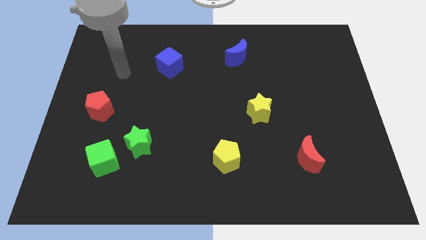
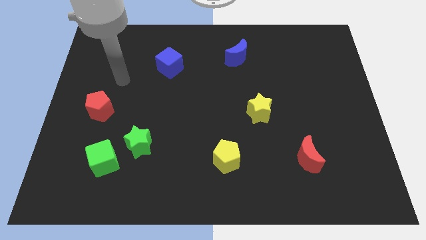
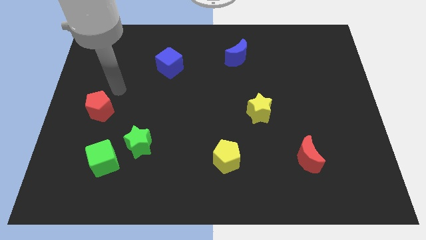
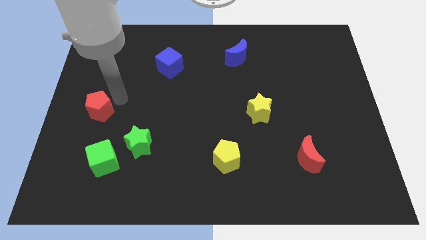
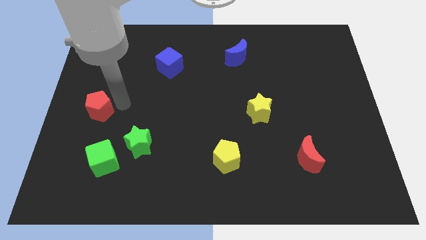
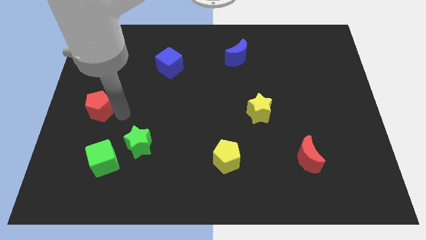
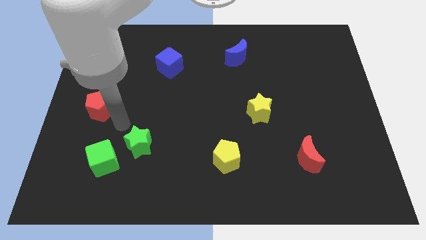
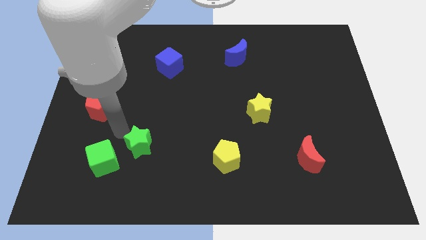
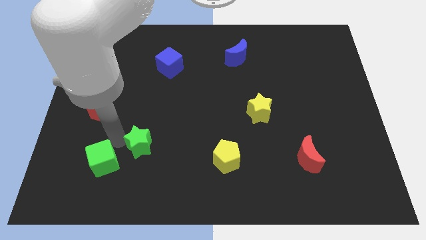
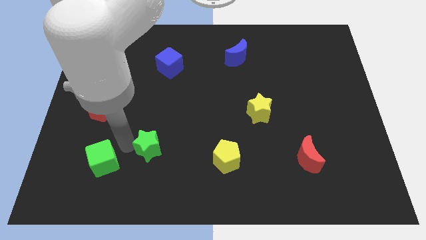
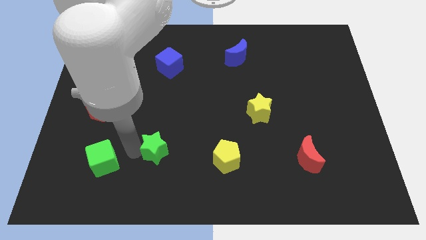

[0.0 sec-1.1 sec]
move the green cube away from the green star

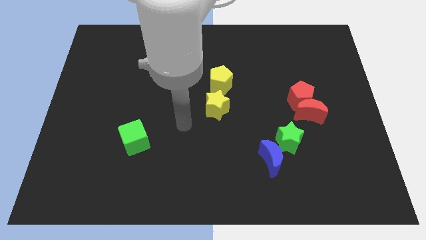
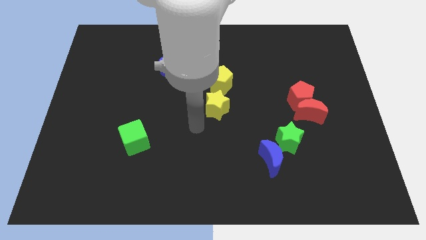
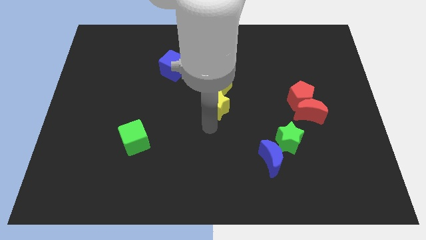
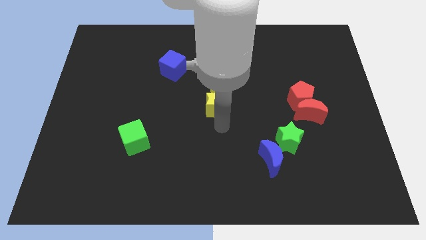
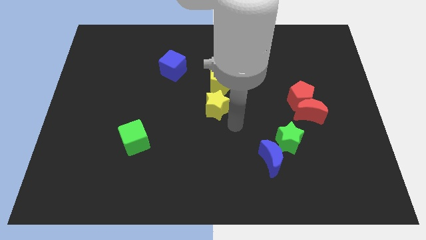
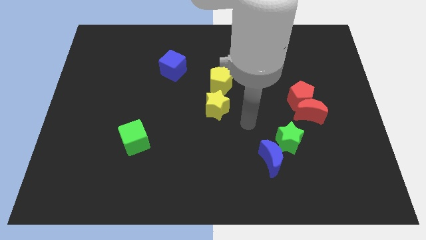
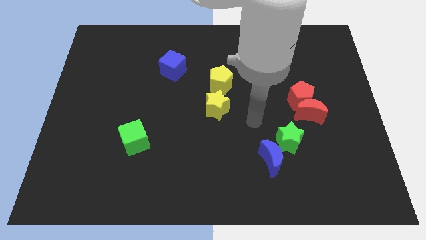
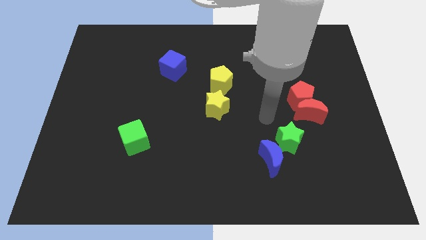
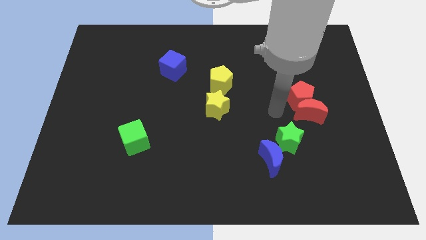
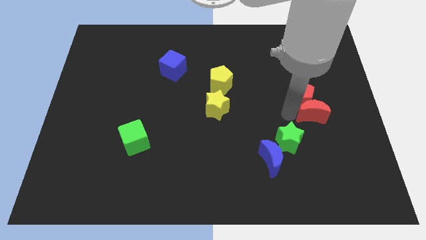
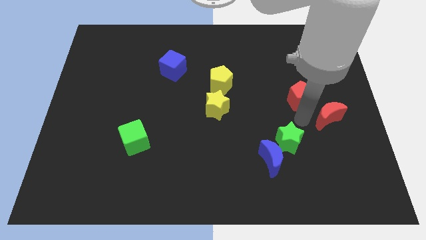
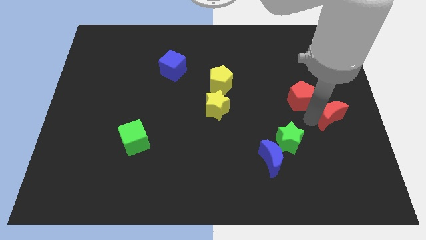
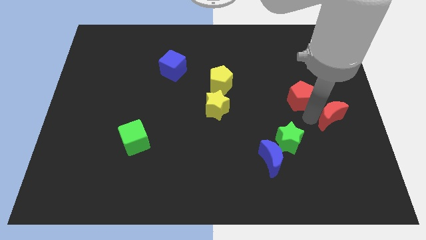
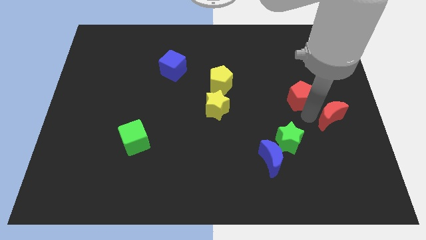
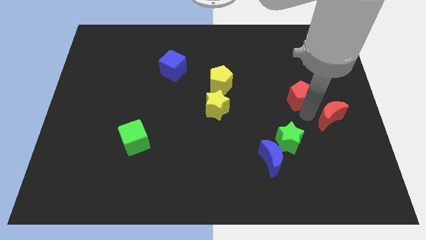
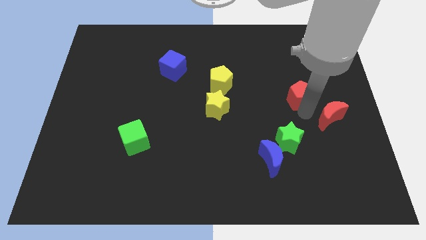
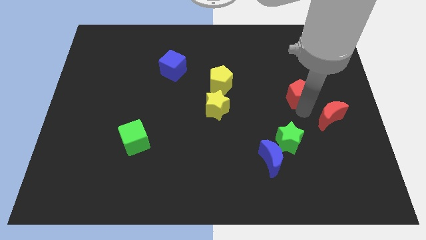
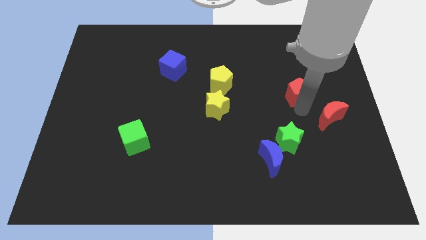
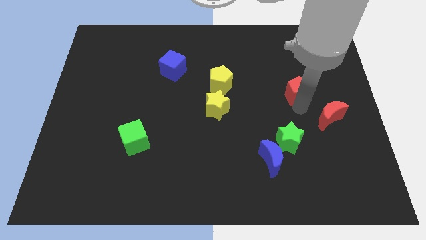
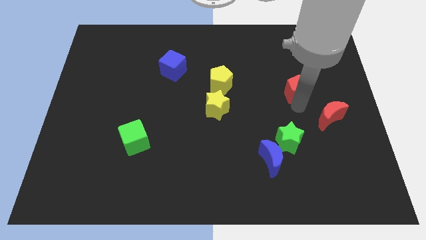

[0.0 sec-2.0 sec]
pull the red pentagon apart from the red moon

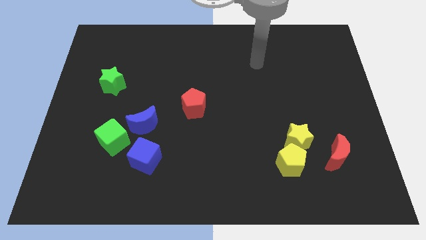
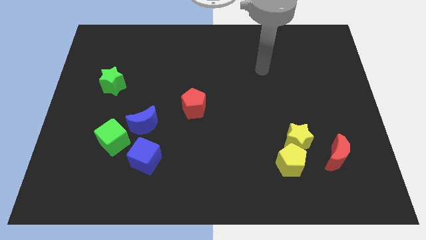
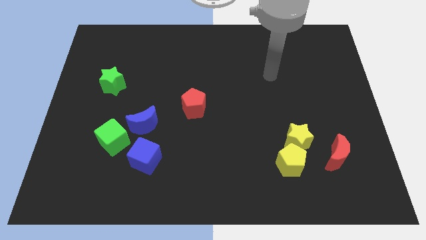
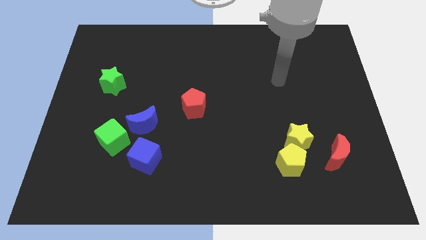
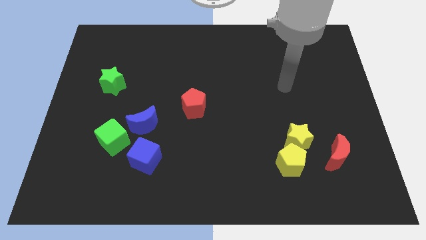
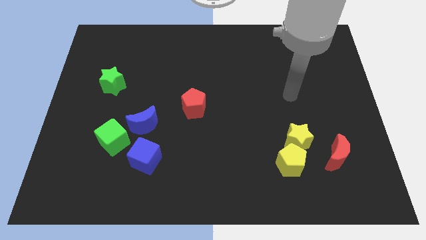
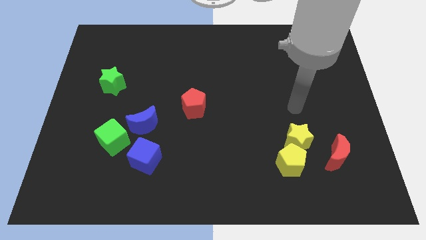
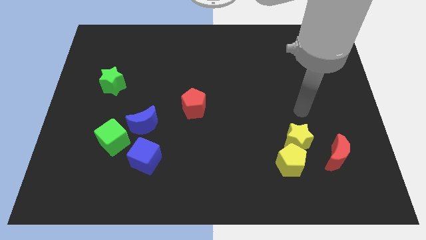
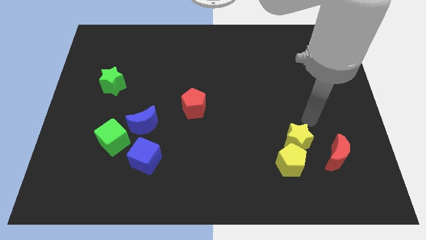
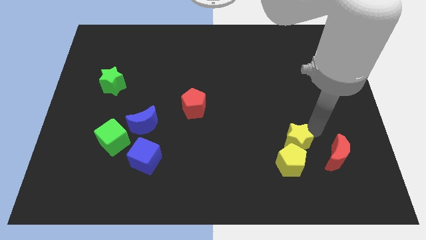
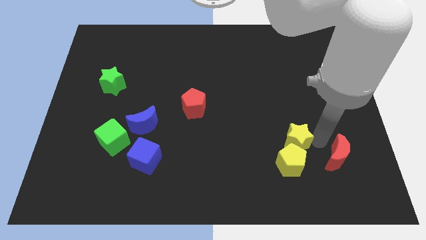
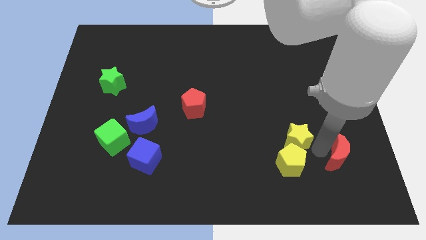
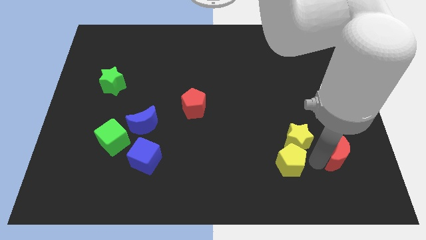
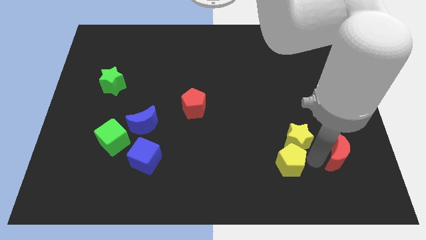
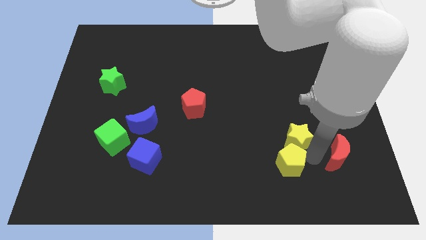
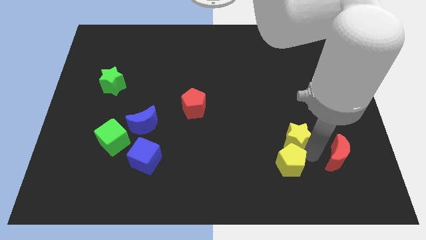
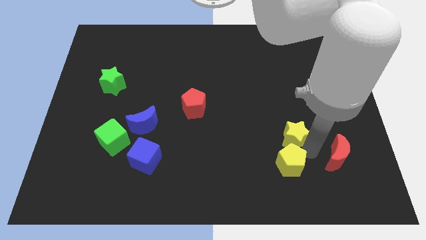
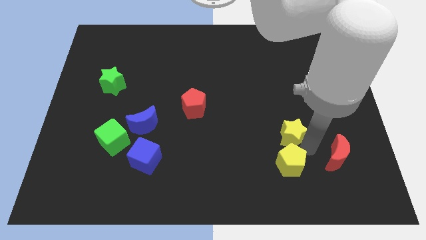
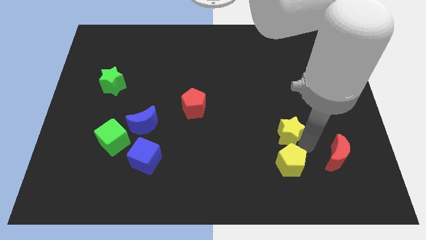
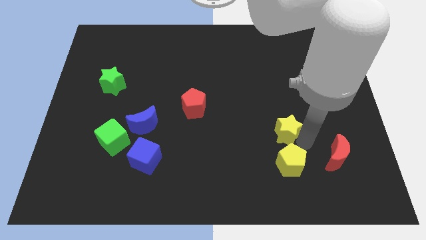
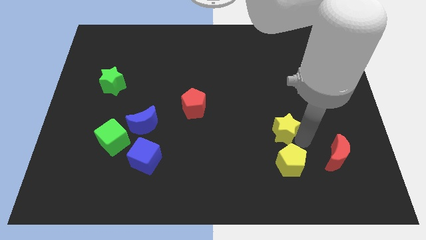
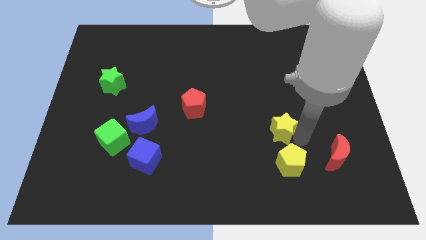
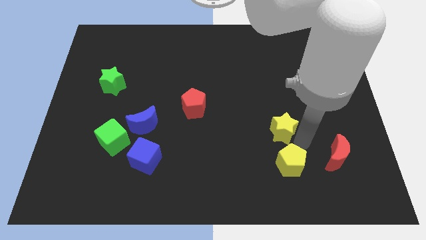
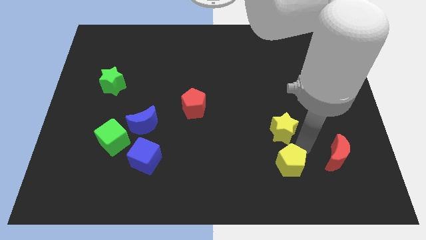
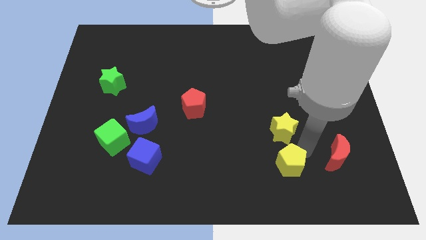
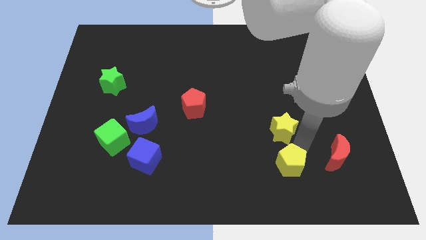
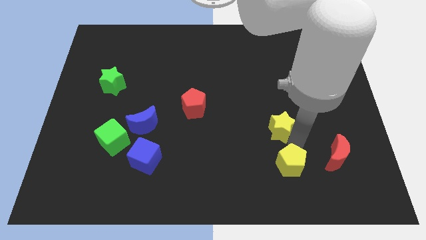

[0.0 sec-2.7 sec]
pull the yellow star apart from the yellow pentagon and red moon

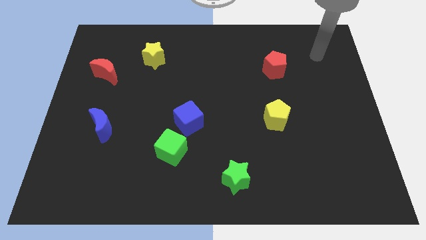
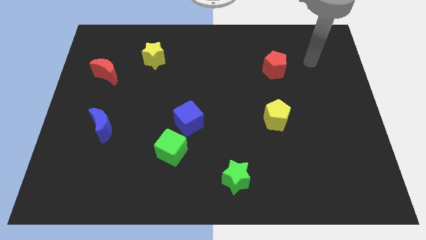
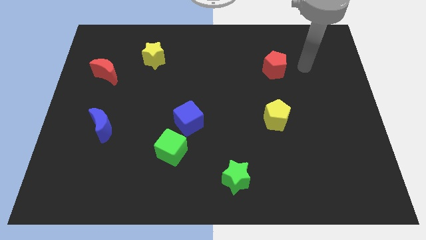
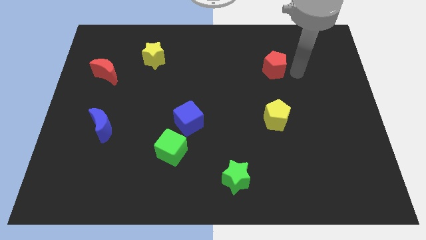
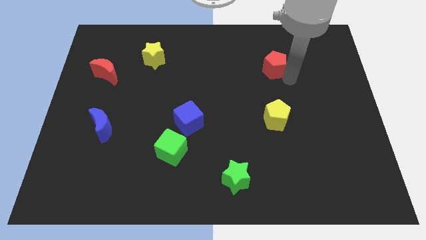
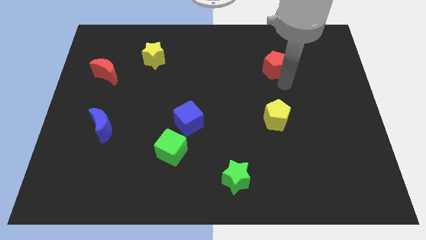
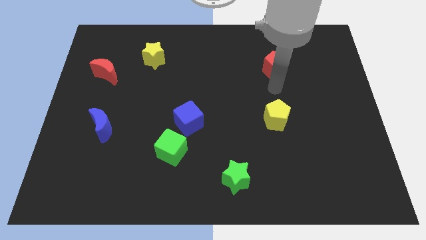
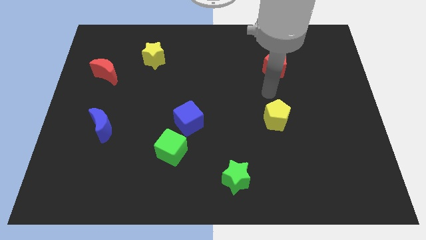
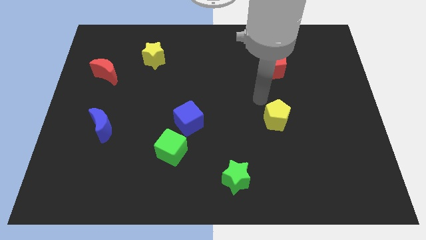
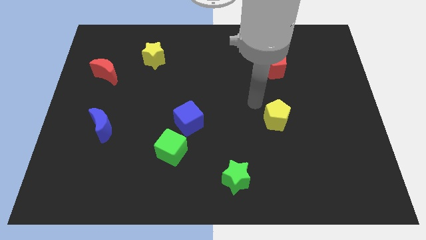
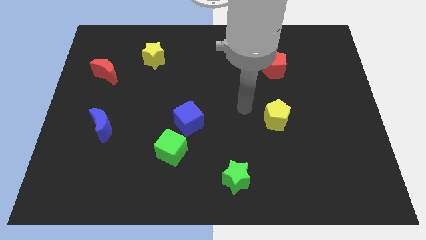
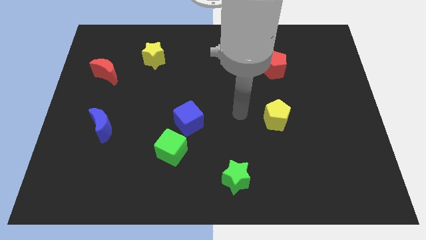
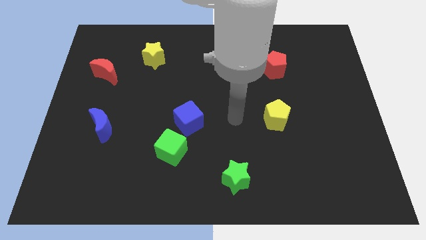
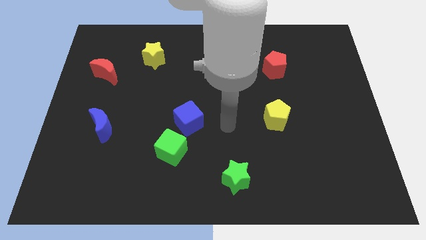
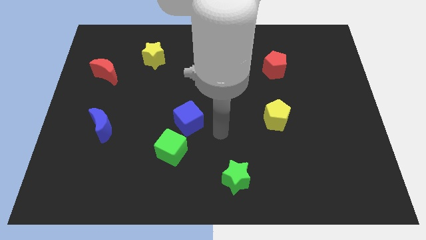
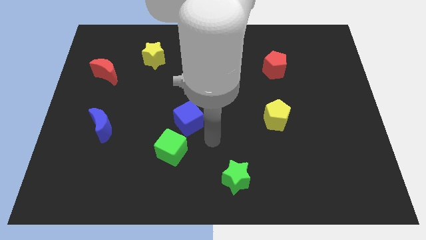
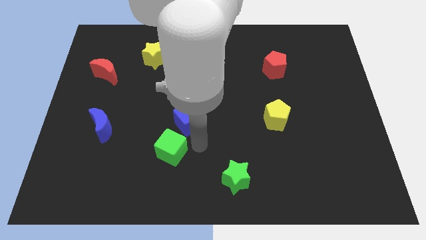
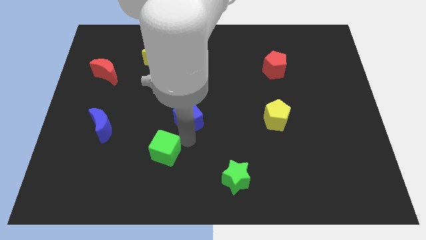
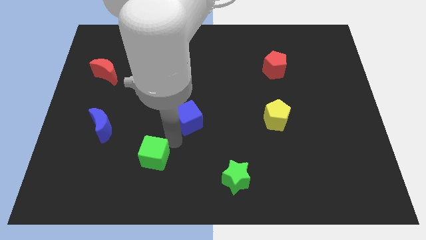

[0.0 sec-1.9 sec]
move the blue cube away from the green cube

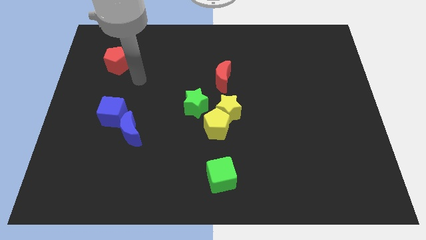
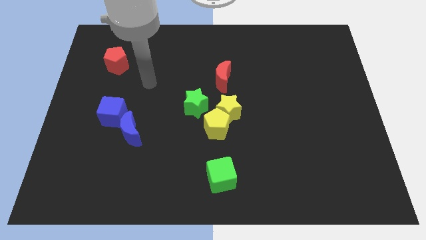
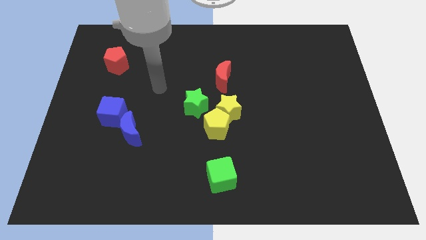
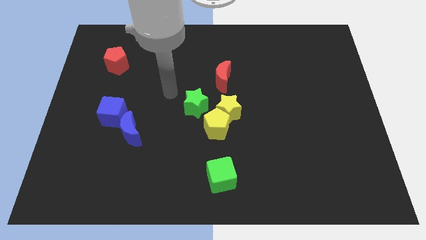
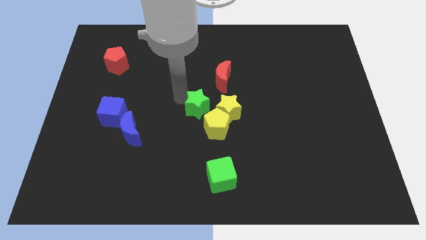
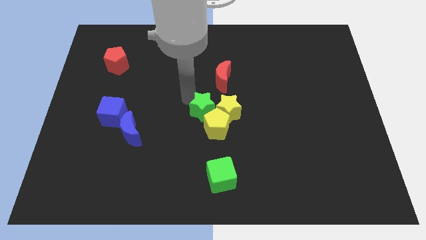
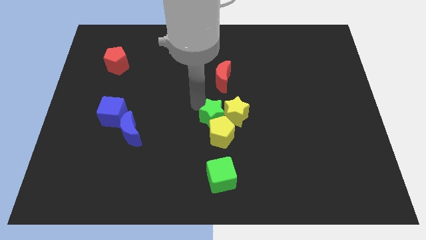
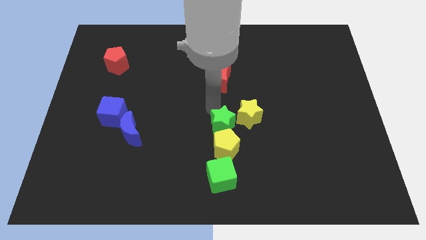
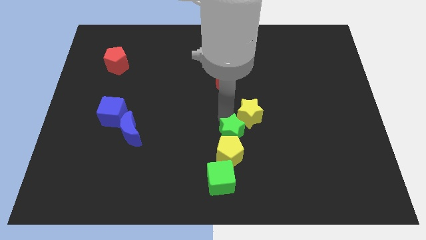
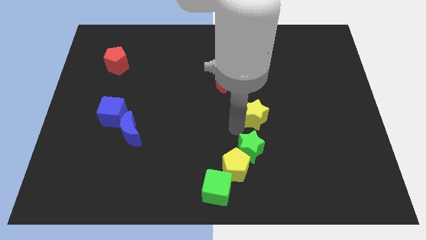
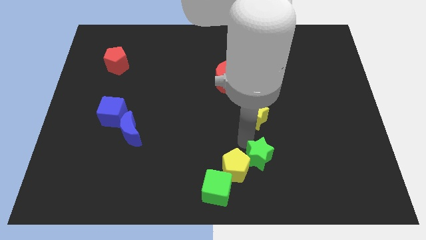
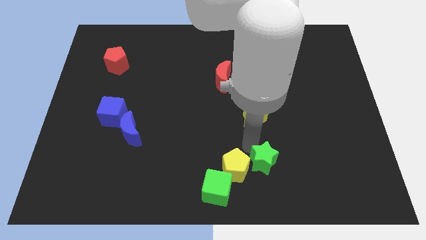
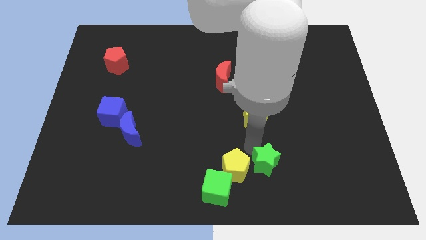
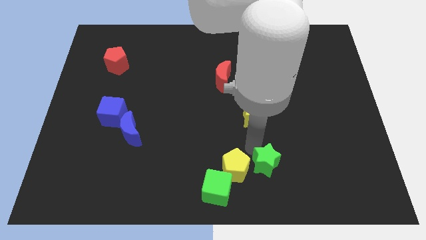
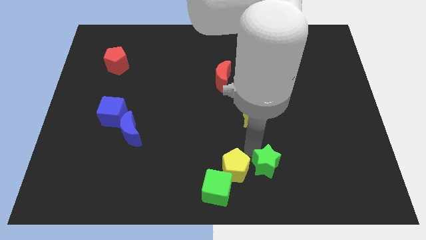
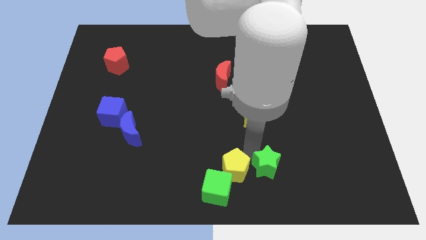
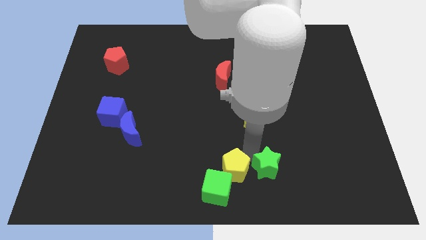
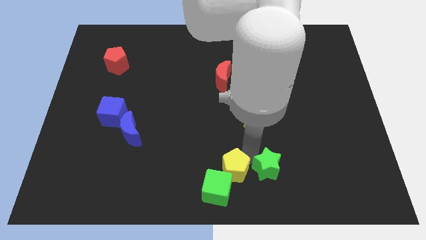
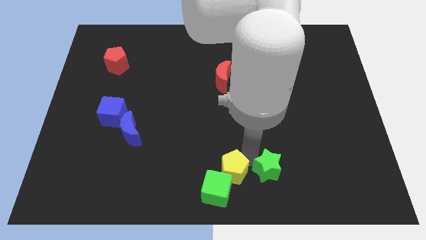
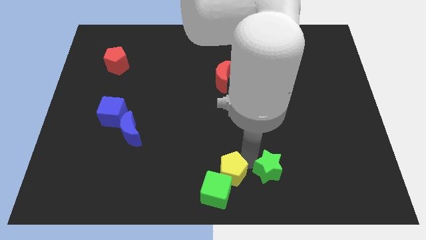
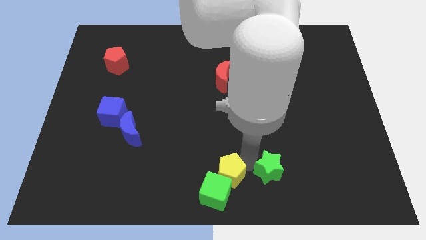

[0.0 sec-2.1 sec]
pull the yellow pentagon apart from the yellow star and green star
